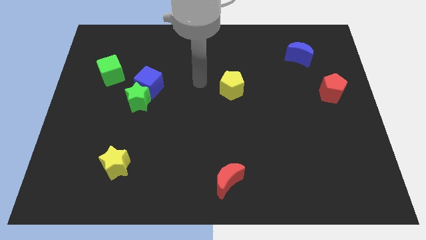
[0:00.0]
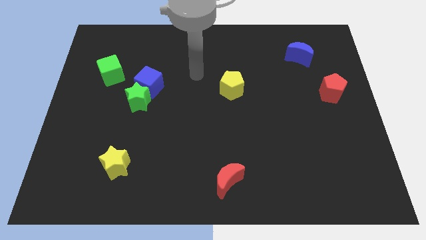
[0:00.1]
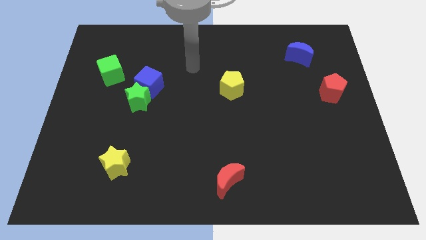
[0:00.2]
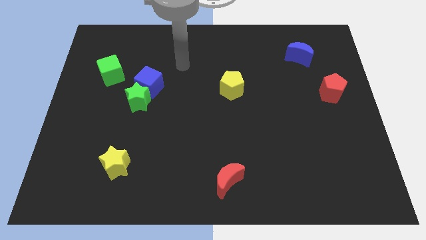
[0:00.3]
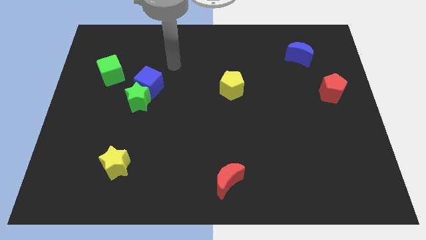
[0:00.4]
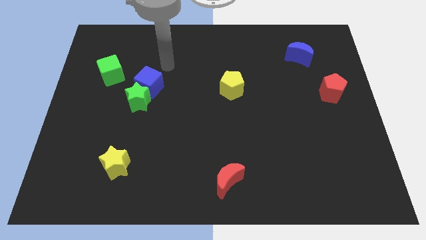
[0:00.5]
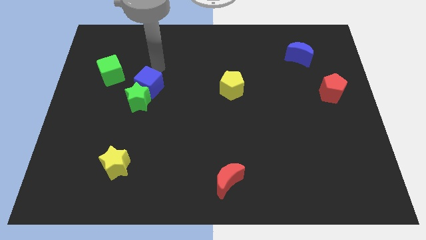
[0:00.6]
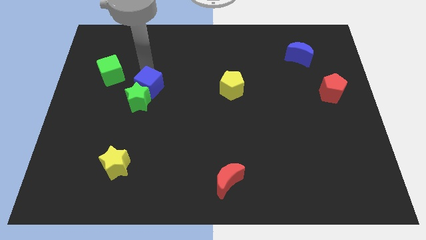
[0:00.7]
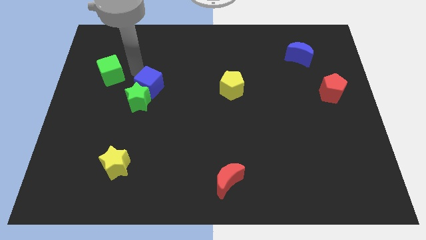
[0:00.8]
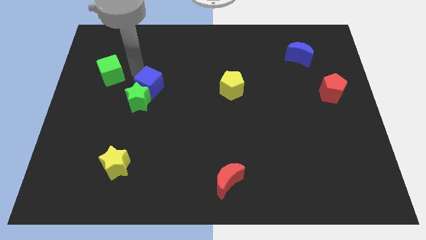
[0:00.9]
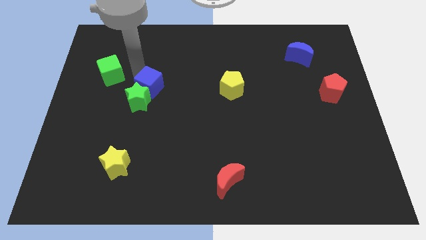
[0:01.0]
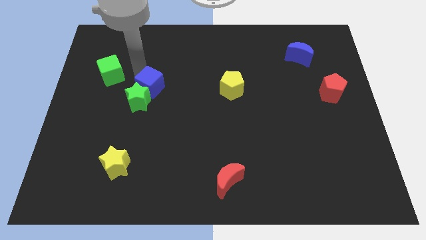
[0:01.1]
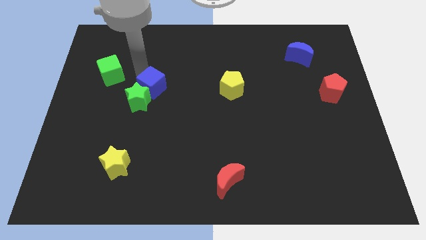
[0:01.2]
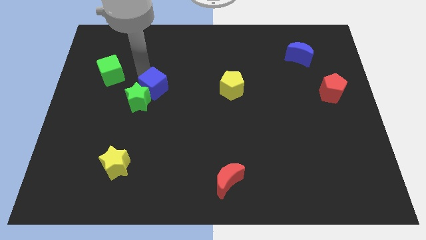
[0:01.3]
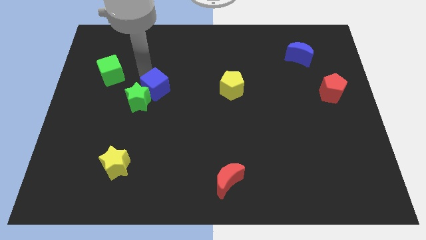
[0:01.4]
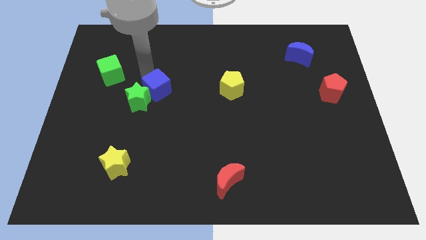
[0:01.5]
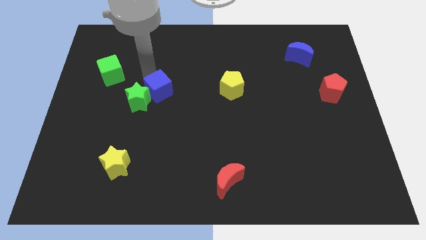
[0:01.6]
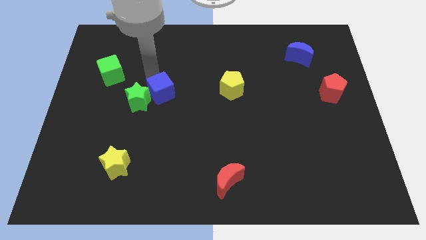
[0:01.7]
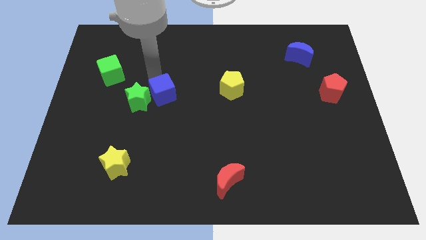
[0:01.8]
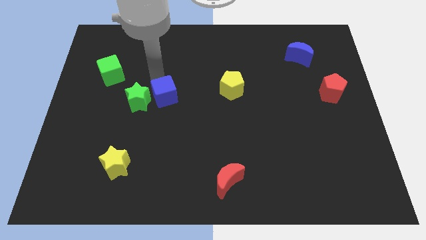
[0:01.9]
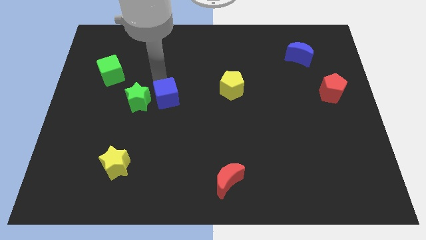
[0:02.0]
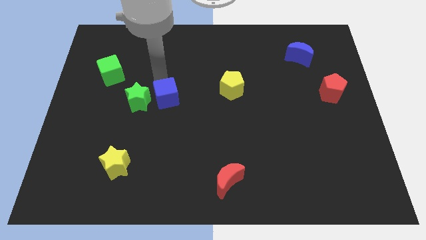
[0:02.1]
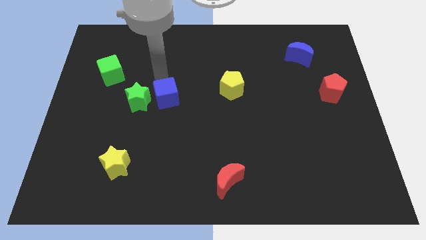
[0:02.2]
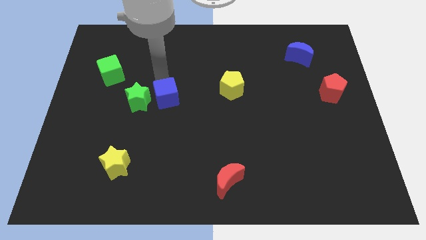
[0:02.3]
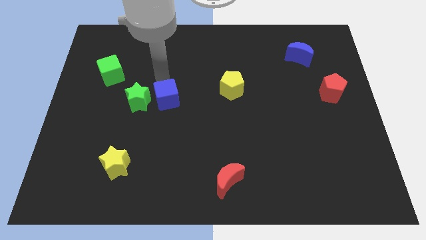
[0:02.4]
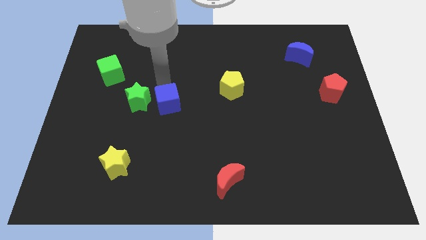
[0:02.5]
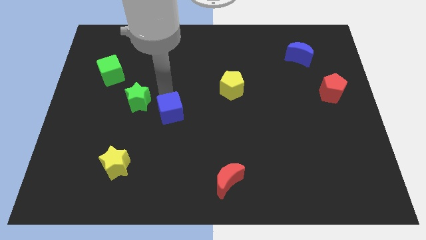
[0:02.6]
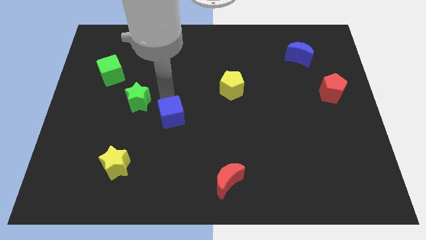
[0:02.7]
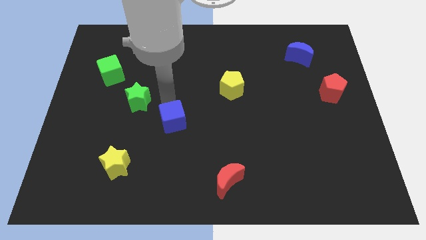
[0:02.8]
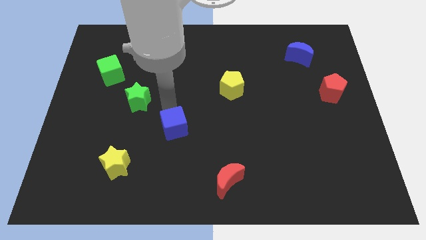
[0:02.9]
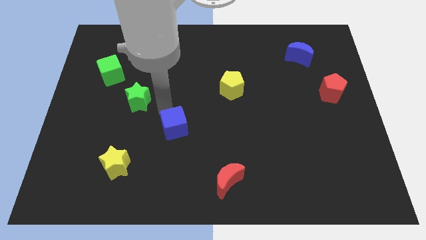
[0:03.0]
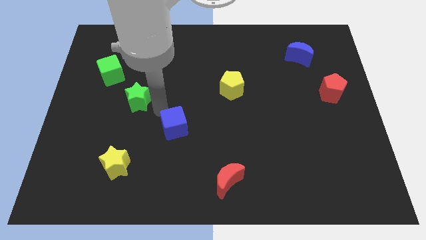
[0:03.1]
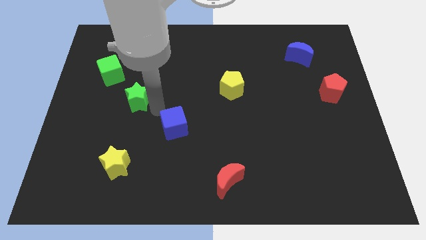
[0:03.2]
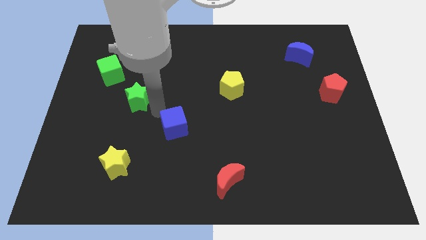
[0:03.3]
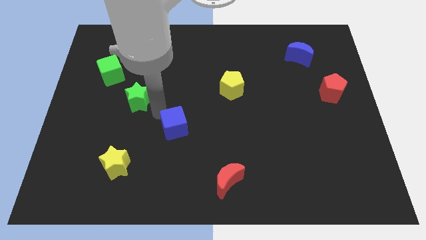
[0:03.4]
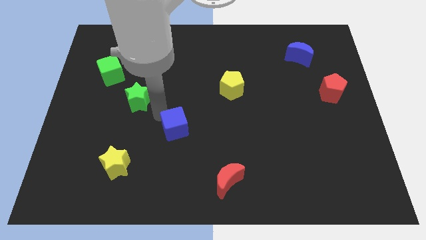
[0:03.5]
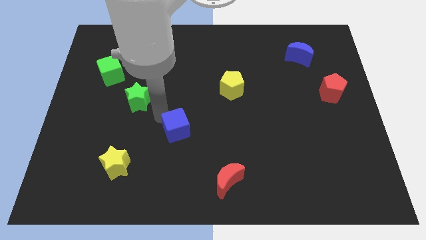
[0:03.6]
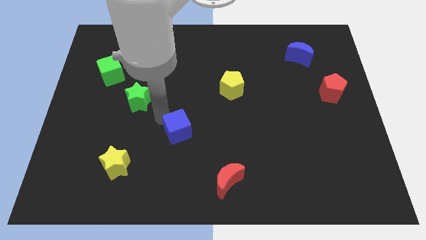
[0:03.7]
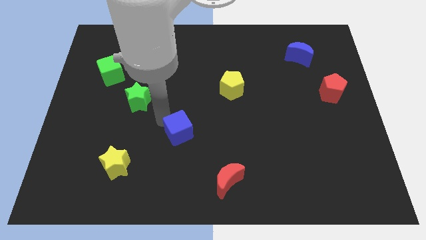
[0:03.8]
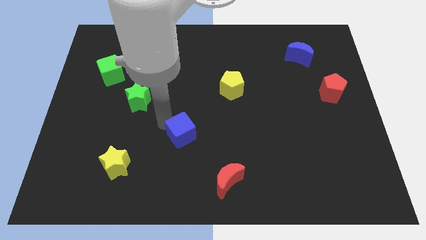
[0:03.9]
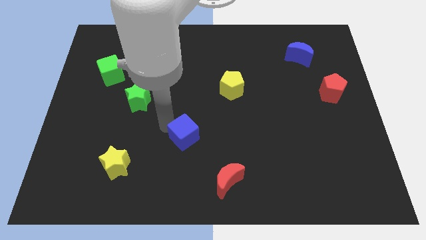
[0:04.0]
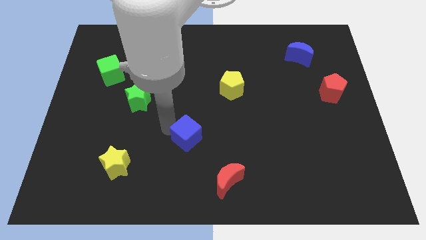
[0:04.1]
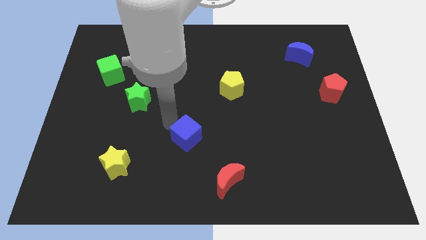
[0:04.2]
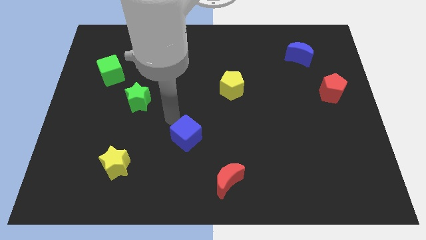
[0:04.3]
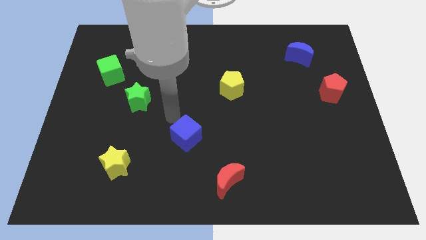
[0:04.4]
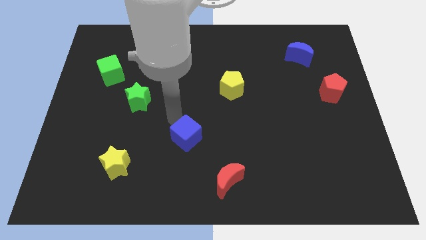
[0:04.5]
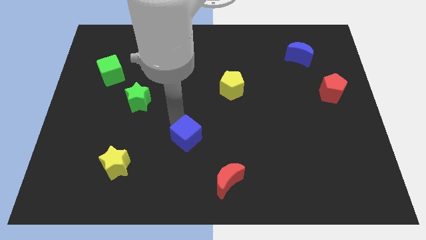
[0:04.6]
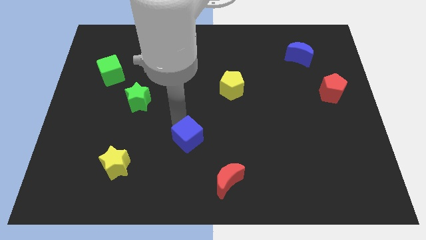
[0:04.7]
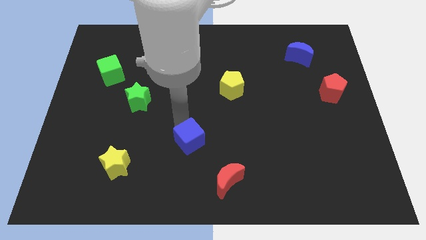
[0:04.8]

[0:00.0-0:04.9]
push the blue cube diagonally up and to the left of the red moon

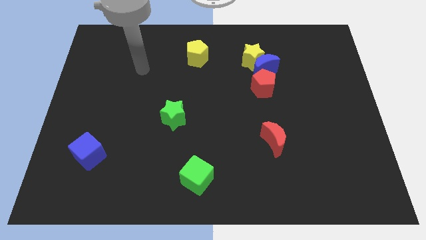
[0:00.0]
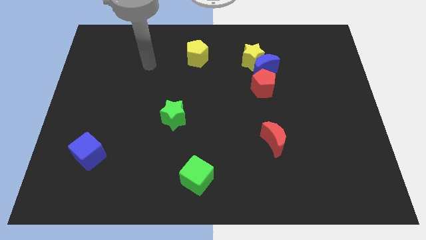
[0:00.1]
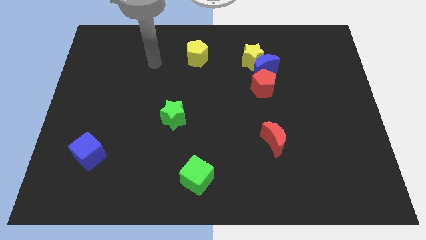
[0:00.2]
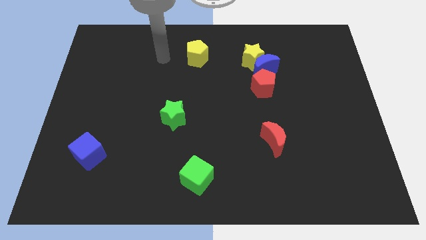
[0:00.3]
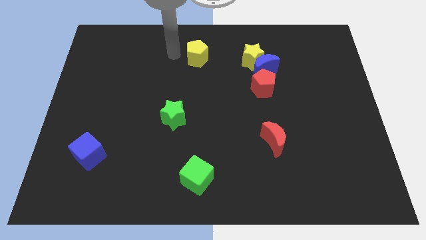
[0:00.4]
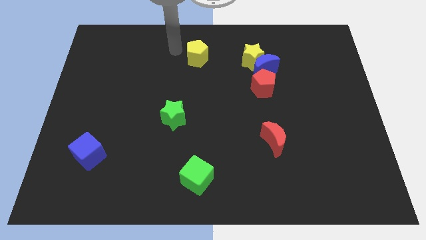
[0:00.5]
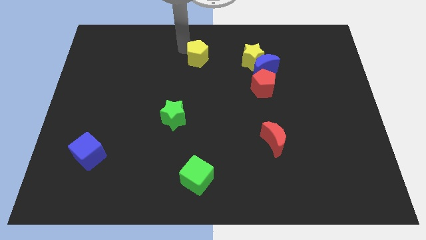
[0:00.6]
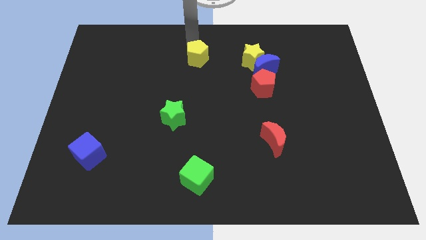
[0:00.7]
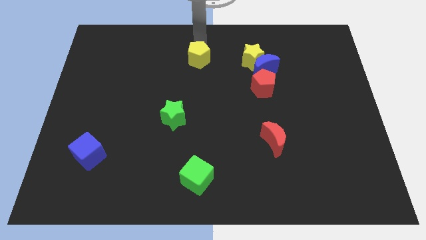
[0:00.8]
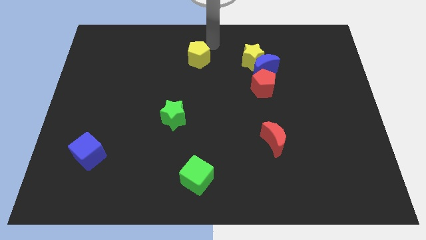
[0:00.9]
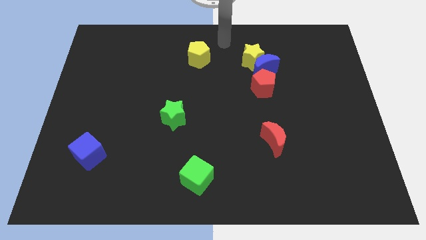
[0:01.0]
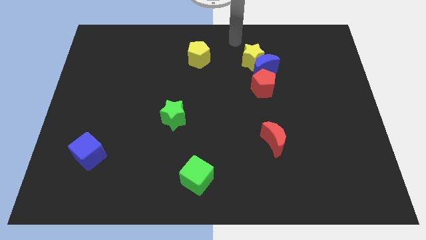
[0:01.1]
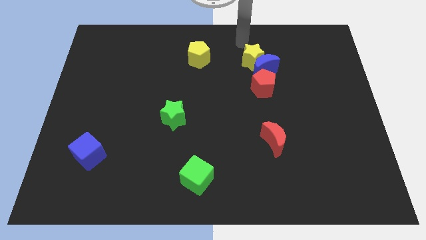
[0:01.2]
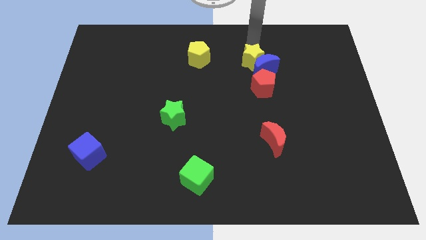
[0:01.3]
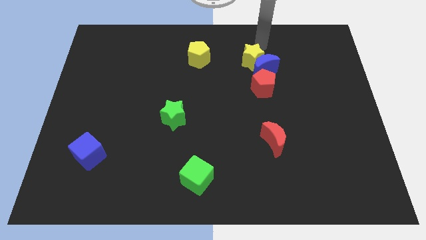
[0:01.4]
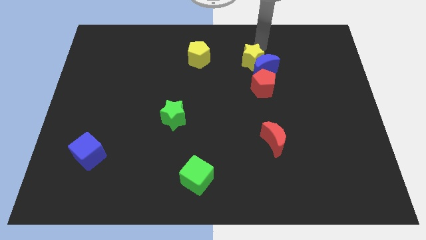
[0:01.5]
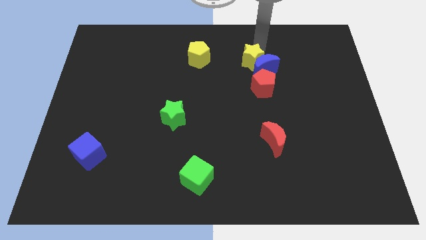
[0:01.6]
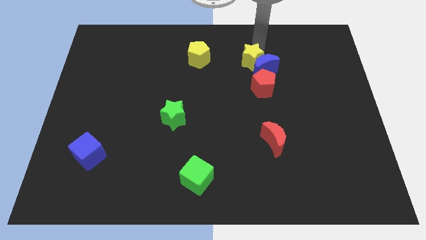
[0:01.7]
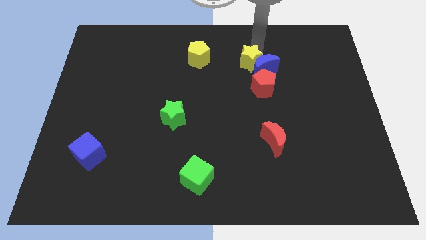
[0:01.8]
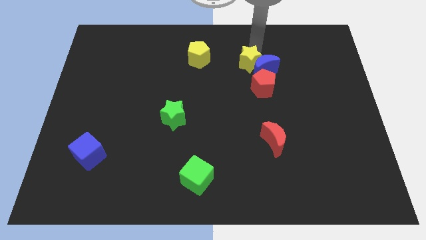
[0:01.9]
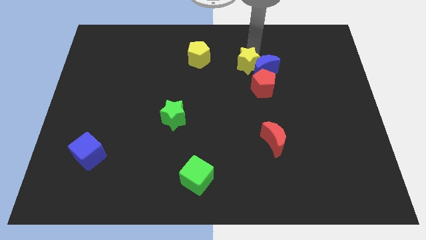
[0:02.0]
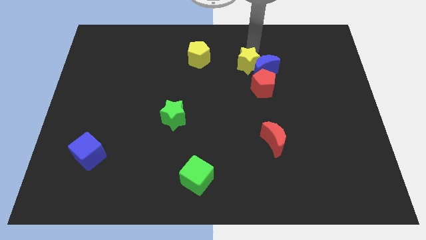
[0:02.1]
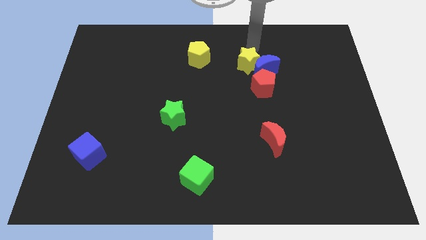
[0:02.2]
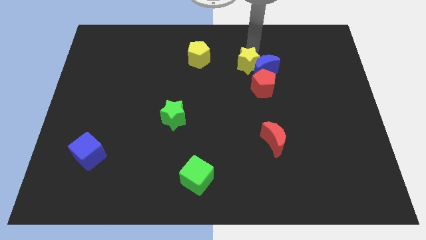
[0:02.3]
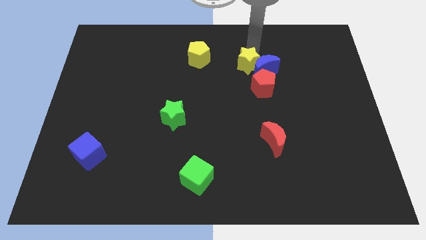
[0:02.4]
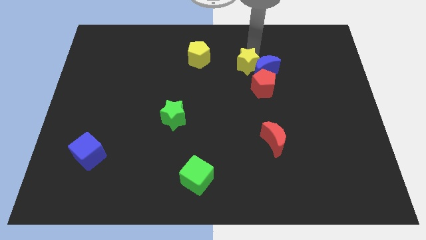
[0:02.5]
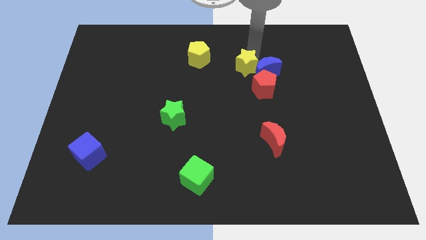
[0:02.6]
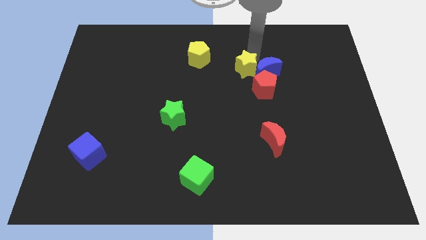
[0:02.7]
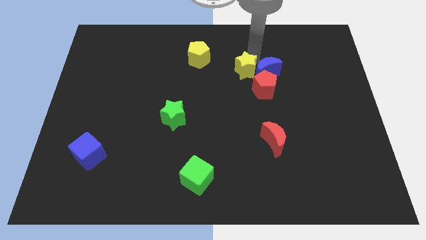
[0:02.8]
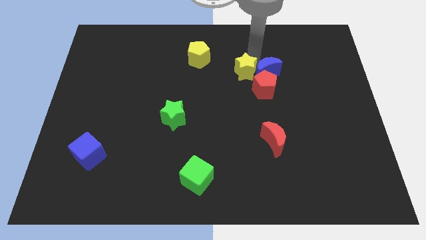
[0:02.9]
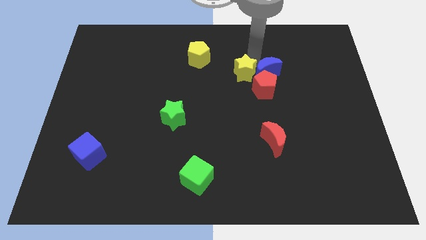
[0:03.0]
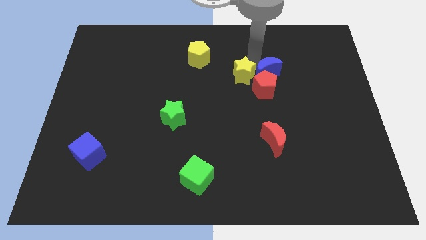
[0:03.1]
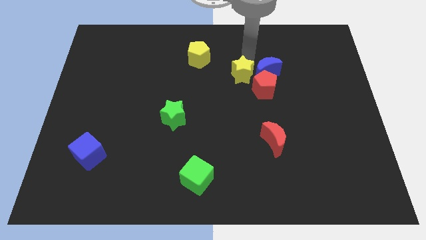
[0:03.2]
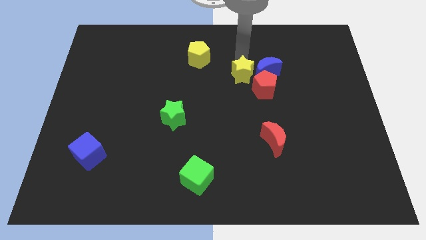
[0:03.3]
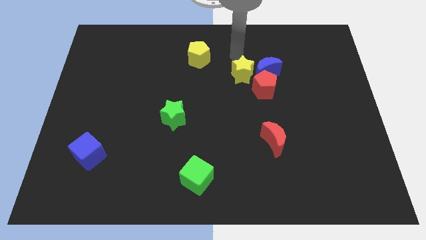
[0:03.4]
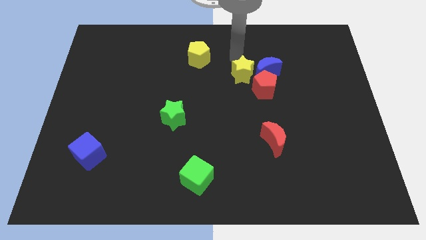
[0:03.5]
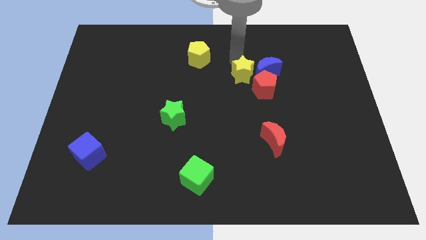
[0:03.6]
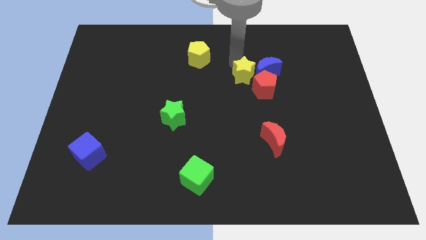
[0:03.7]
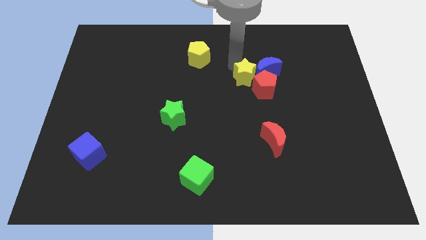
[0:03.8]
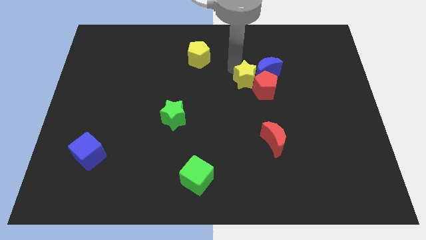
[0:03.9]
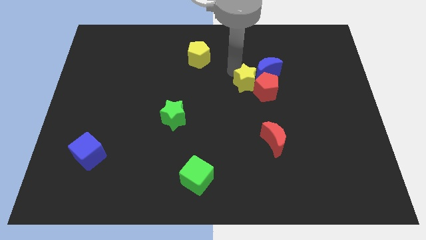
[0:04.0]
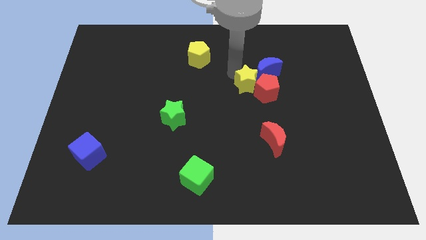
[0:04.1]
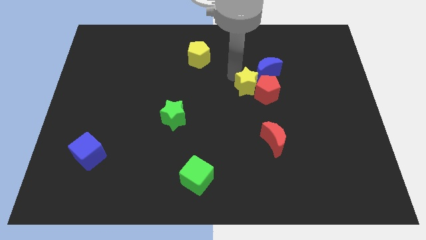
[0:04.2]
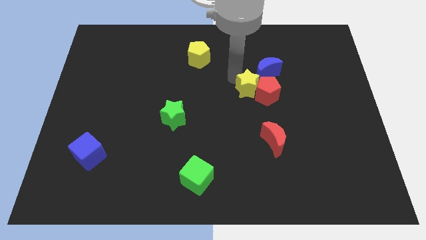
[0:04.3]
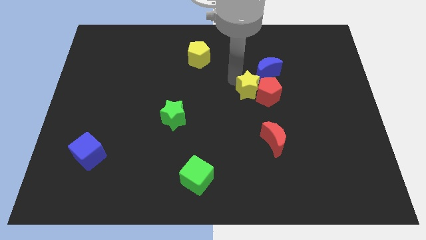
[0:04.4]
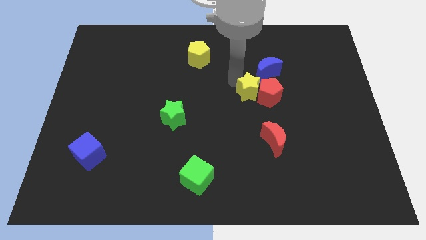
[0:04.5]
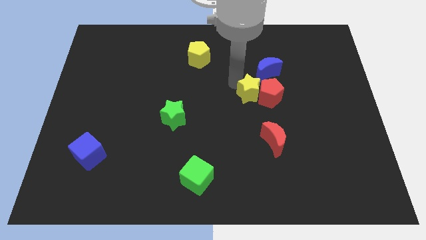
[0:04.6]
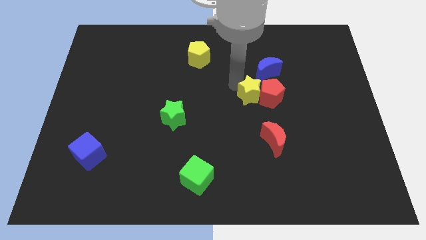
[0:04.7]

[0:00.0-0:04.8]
push the yellow star to the bottom side of the blue moon
